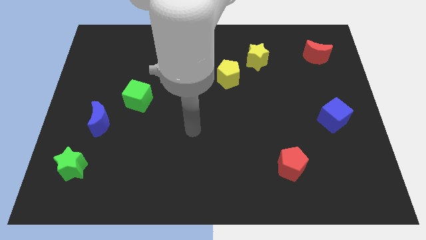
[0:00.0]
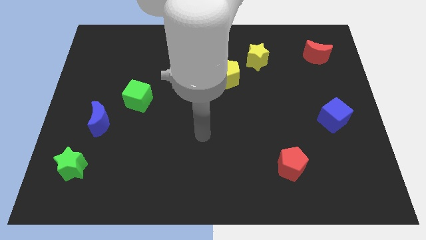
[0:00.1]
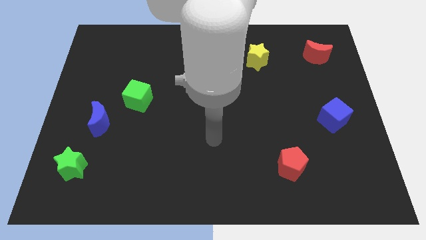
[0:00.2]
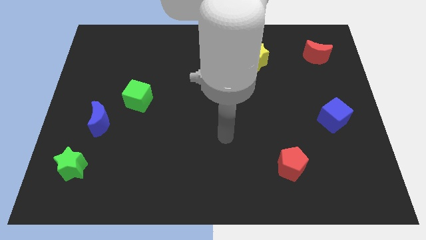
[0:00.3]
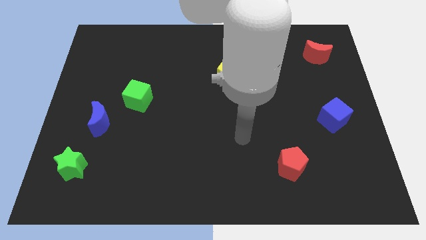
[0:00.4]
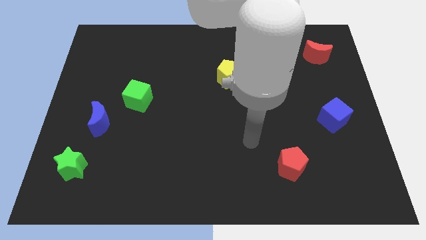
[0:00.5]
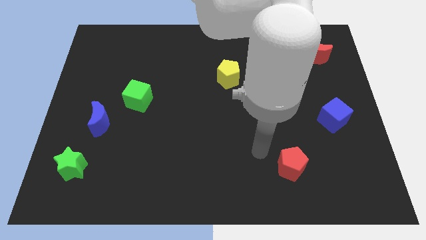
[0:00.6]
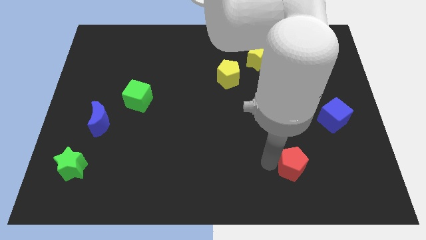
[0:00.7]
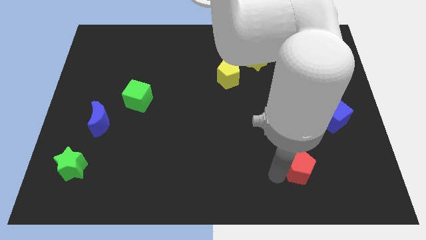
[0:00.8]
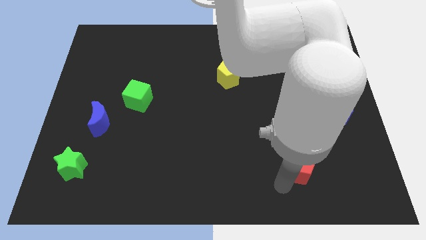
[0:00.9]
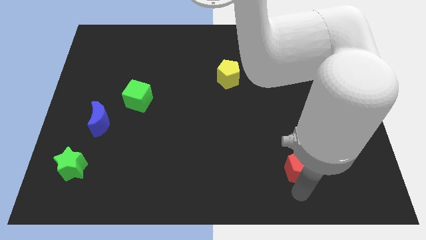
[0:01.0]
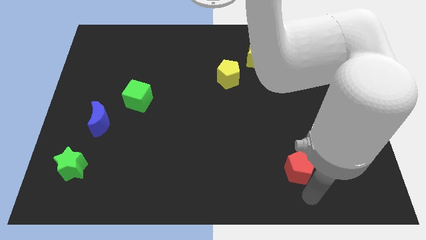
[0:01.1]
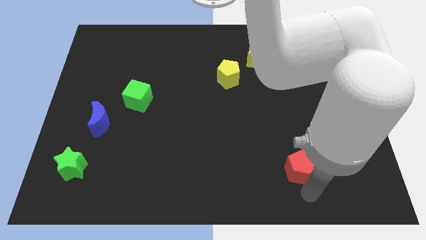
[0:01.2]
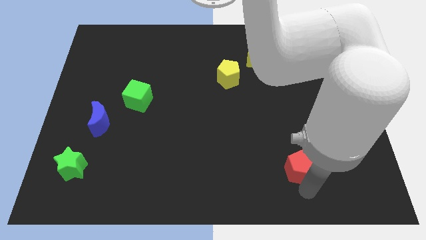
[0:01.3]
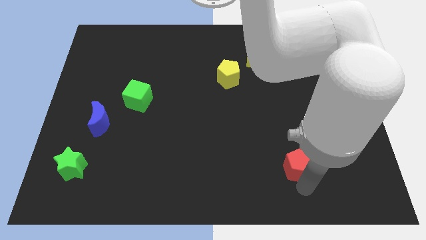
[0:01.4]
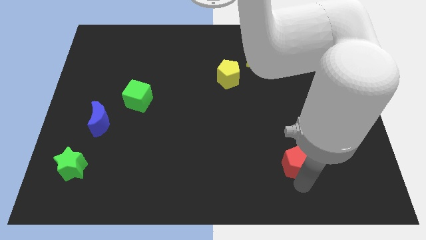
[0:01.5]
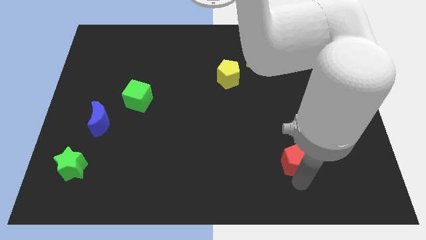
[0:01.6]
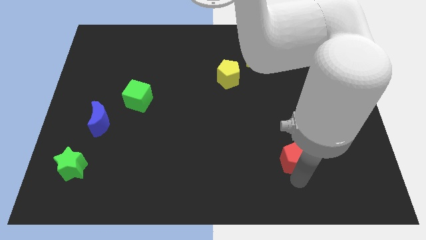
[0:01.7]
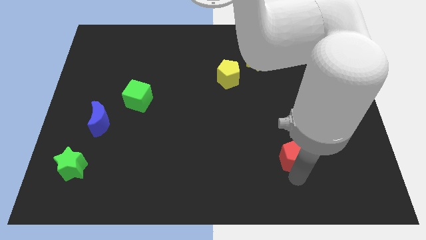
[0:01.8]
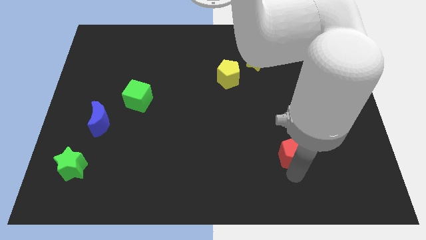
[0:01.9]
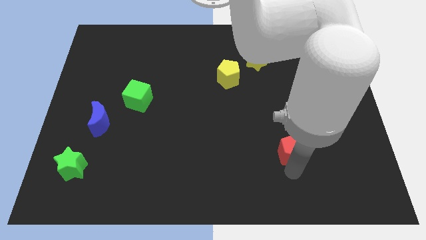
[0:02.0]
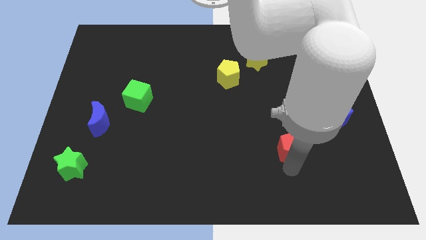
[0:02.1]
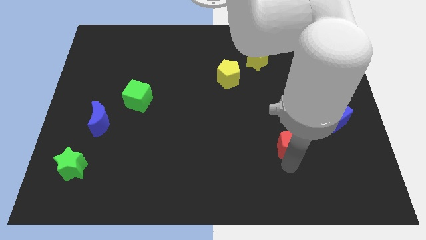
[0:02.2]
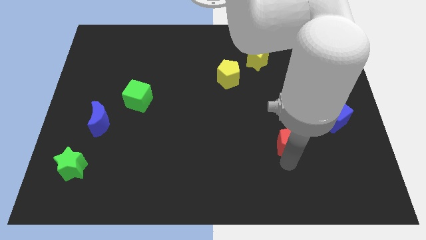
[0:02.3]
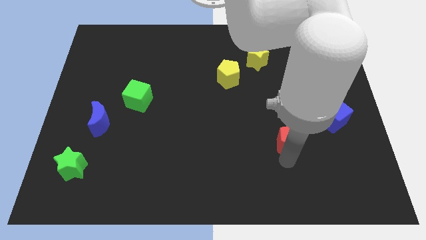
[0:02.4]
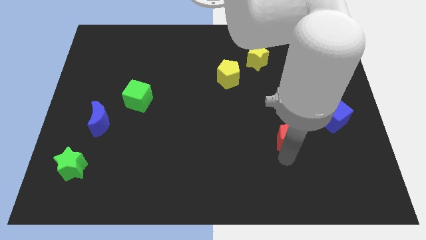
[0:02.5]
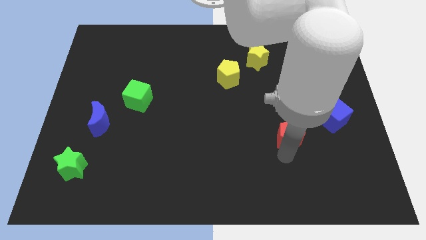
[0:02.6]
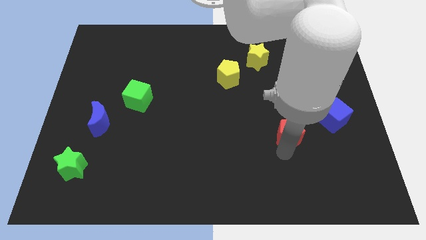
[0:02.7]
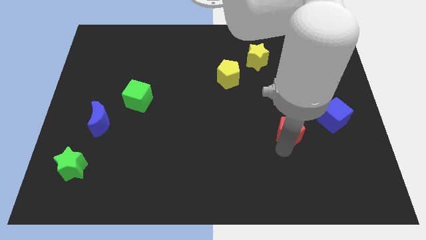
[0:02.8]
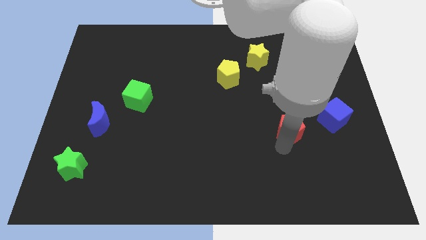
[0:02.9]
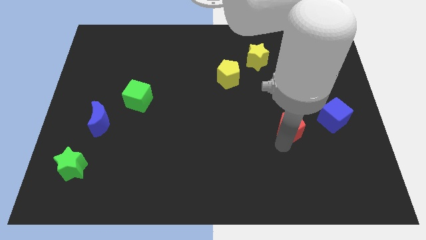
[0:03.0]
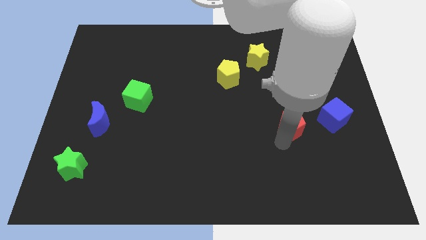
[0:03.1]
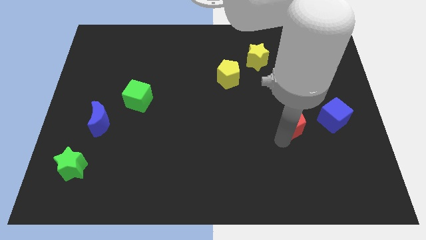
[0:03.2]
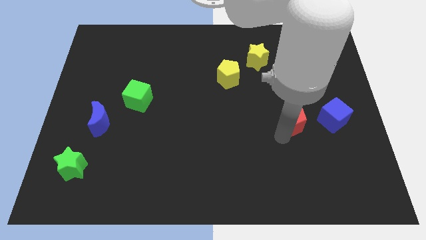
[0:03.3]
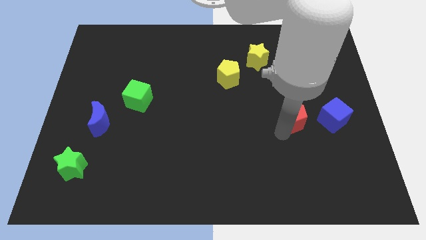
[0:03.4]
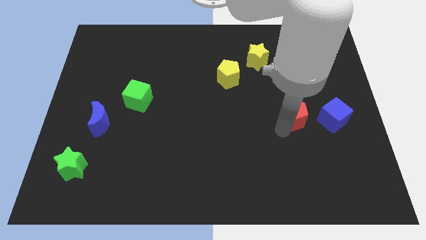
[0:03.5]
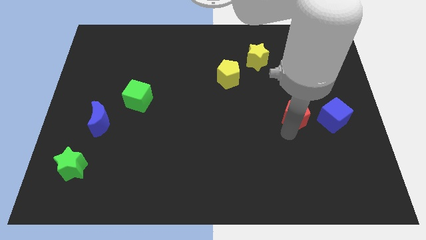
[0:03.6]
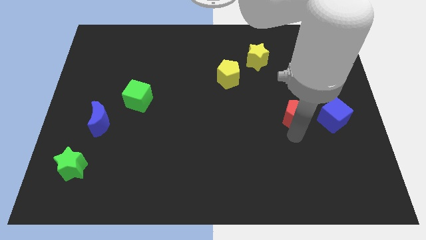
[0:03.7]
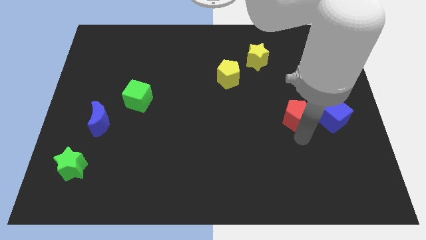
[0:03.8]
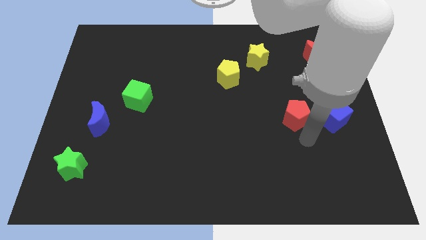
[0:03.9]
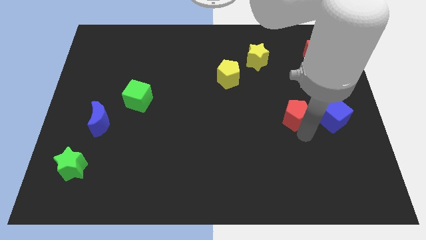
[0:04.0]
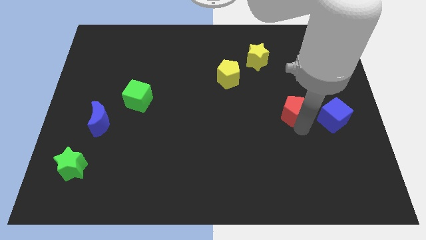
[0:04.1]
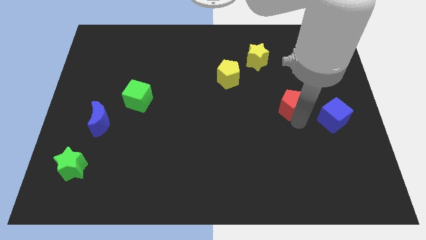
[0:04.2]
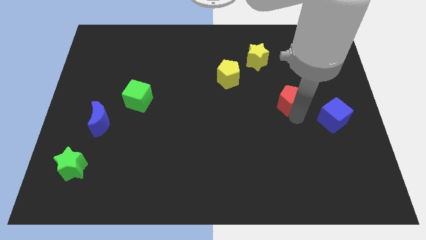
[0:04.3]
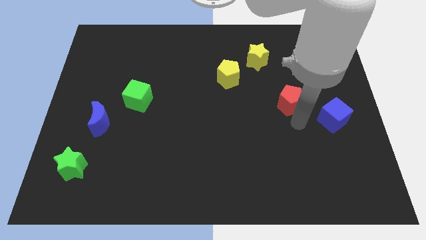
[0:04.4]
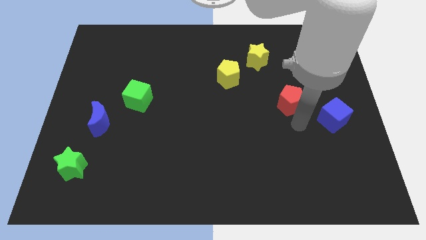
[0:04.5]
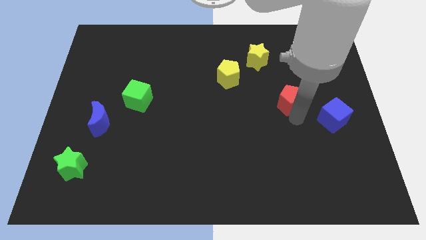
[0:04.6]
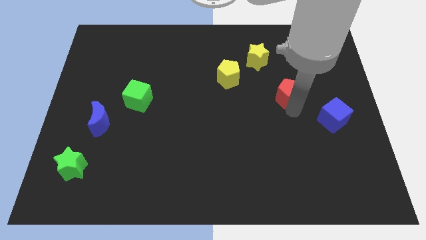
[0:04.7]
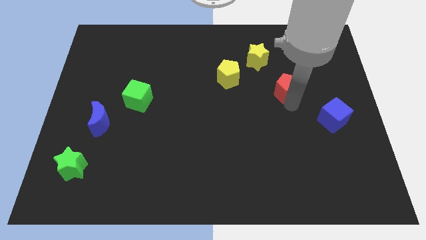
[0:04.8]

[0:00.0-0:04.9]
slide the red pentagon upwards

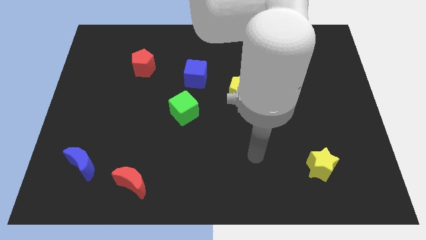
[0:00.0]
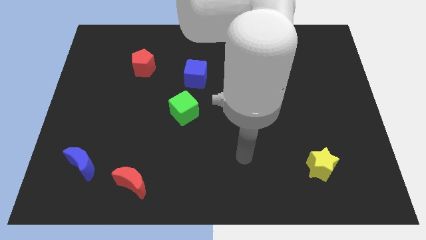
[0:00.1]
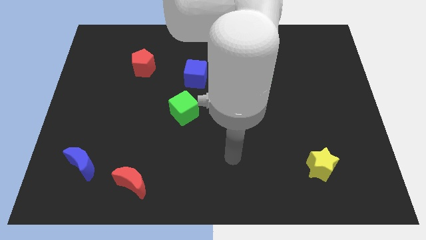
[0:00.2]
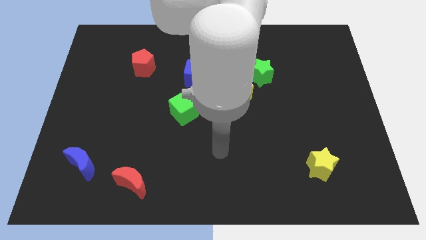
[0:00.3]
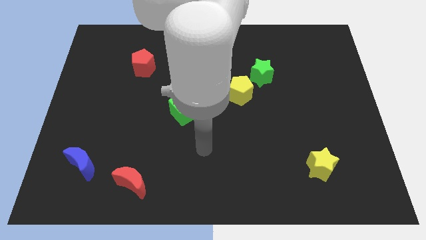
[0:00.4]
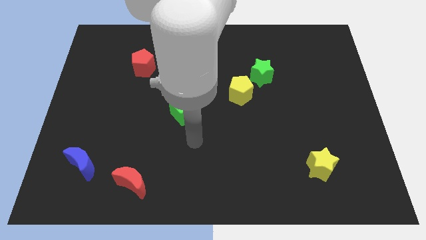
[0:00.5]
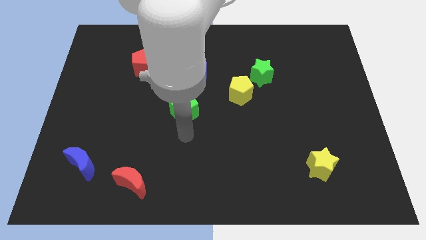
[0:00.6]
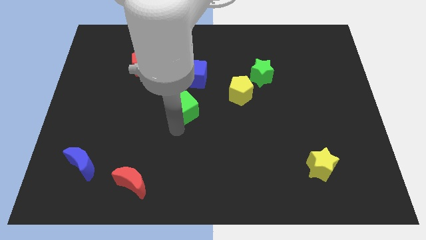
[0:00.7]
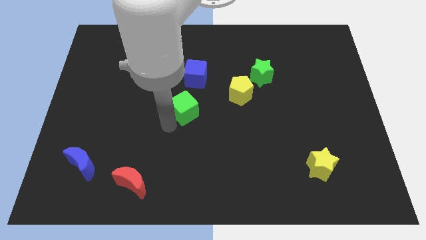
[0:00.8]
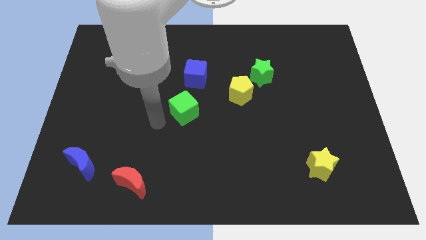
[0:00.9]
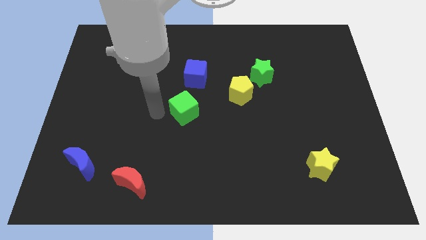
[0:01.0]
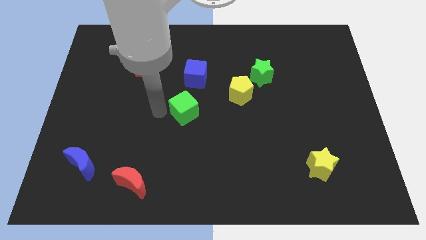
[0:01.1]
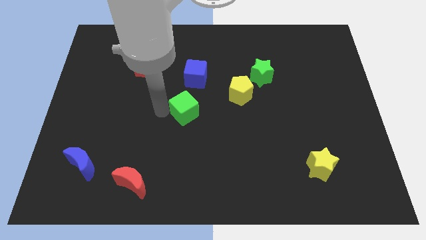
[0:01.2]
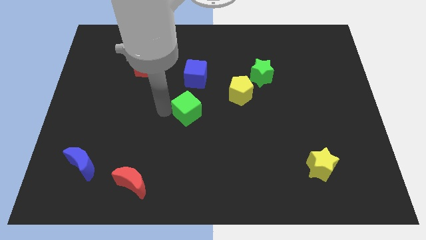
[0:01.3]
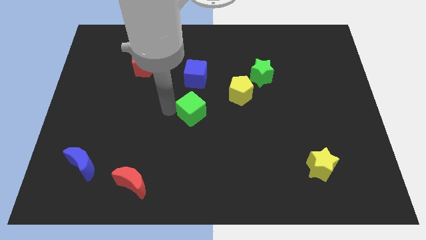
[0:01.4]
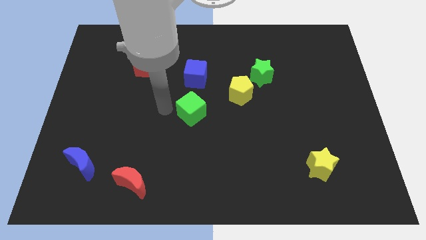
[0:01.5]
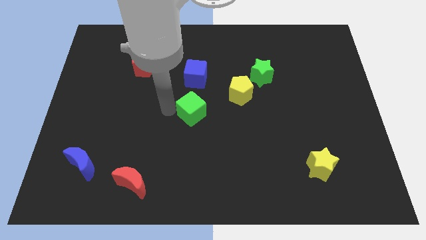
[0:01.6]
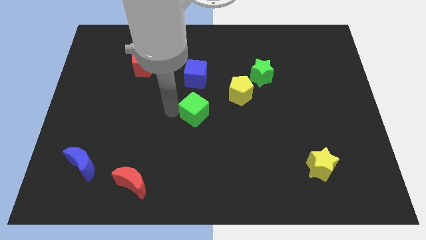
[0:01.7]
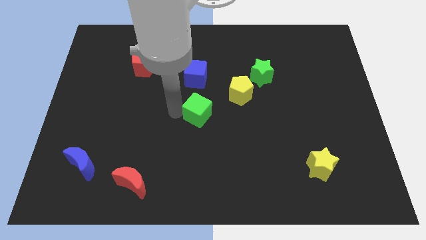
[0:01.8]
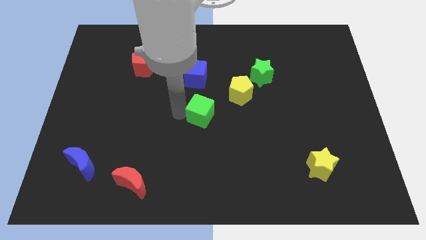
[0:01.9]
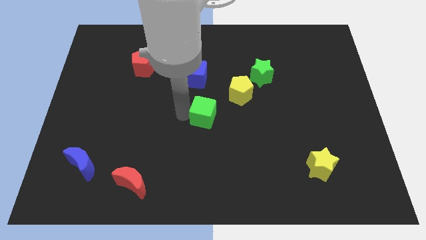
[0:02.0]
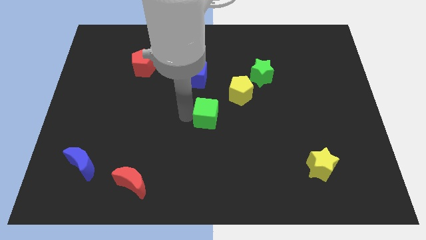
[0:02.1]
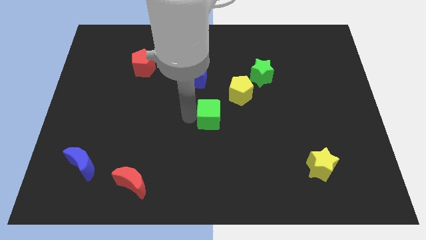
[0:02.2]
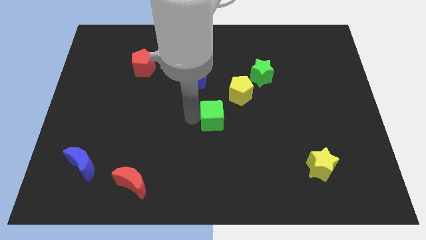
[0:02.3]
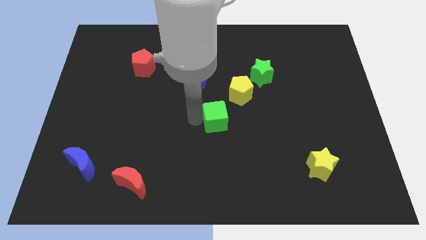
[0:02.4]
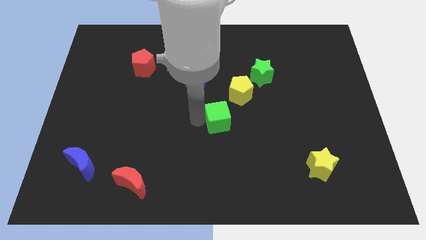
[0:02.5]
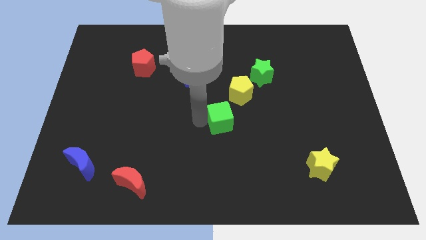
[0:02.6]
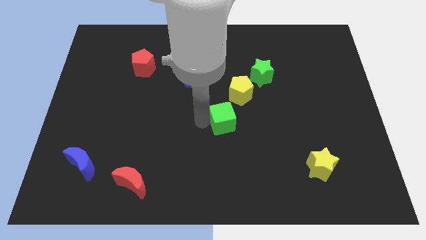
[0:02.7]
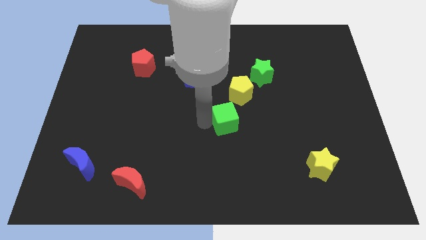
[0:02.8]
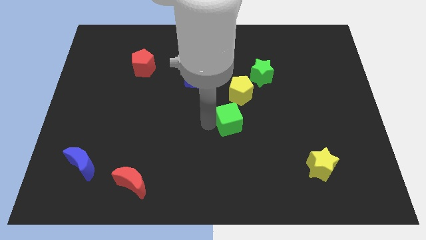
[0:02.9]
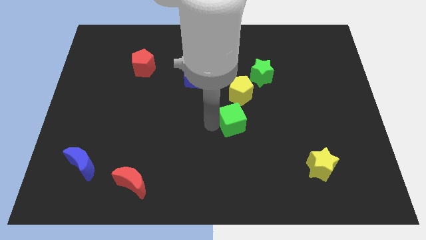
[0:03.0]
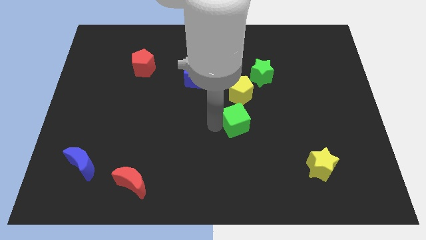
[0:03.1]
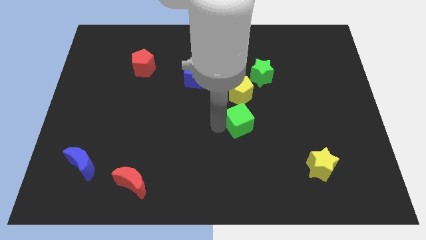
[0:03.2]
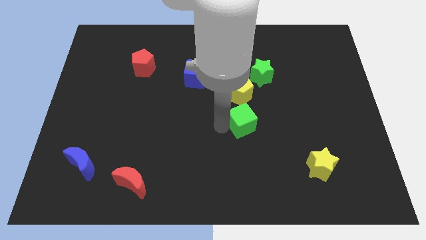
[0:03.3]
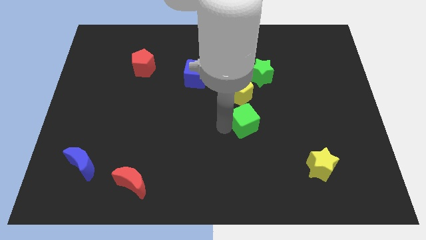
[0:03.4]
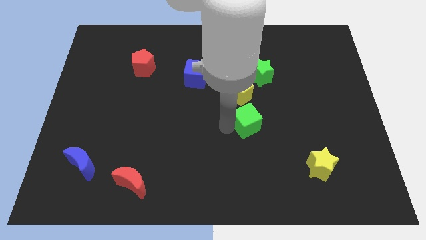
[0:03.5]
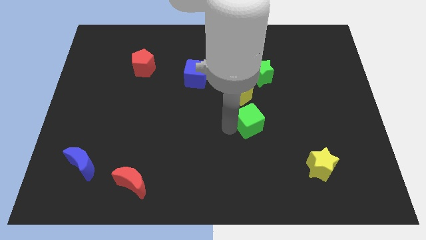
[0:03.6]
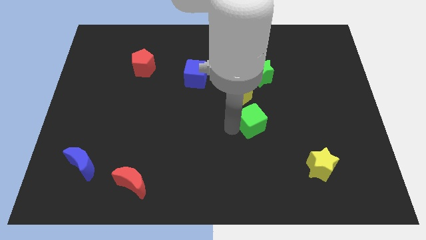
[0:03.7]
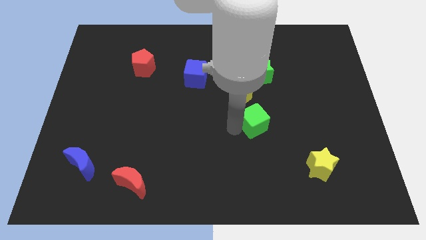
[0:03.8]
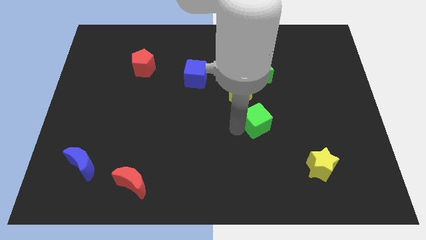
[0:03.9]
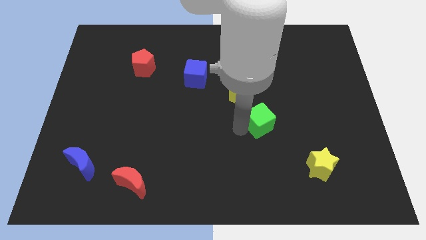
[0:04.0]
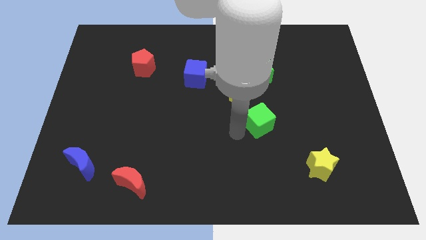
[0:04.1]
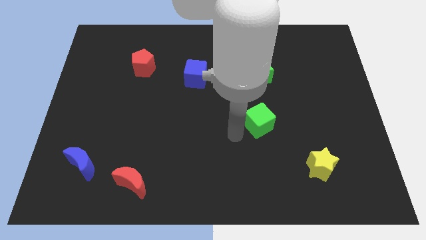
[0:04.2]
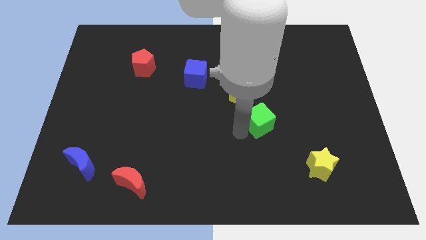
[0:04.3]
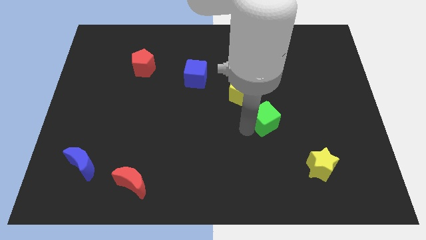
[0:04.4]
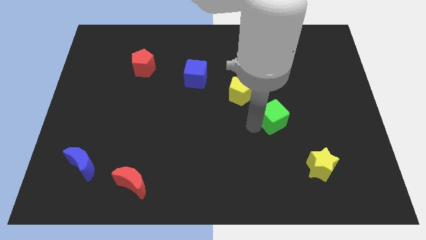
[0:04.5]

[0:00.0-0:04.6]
slide the green cube to the right
